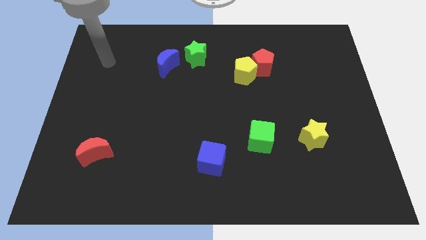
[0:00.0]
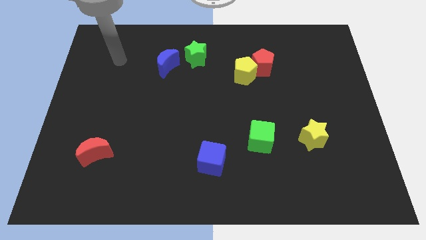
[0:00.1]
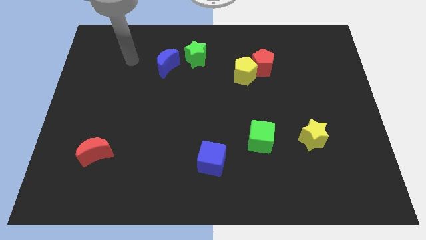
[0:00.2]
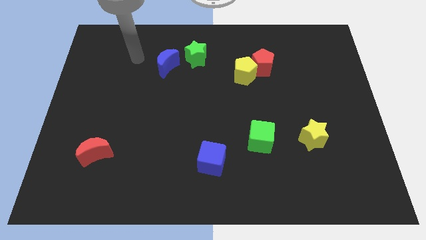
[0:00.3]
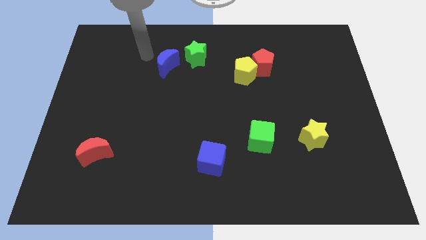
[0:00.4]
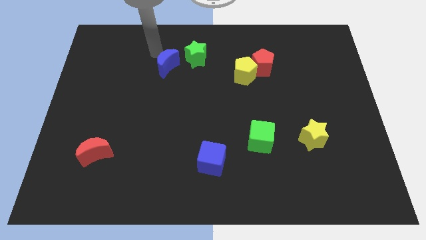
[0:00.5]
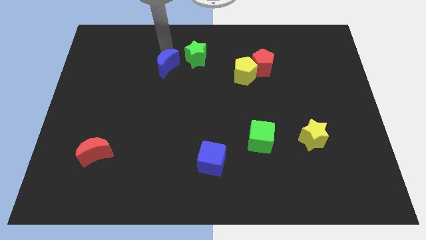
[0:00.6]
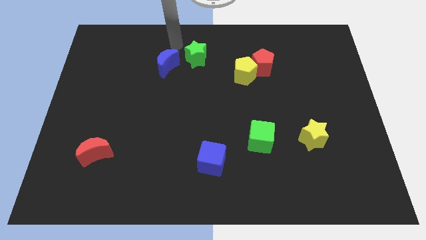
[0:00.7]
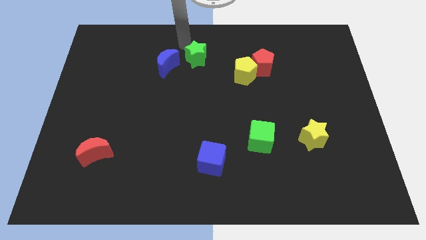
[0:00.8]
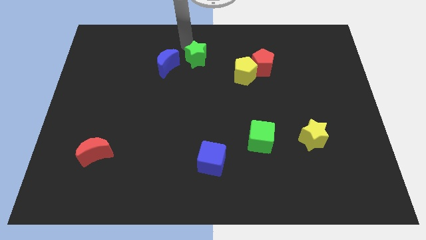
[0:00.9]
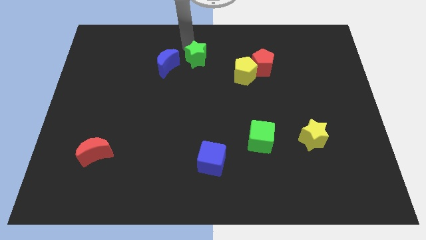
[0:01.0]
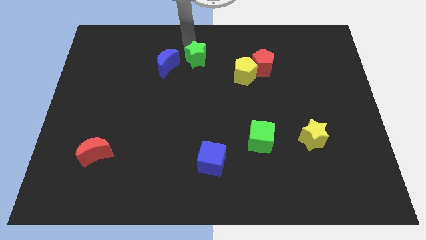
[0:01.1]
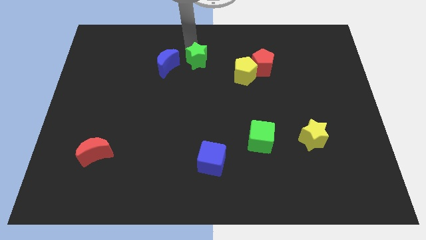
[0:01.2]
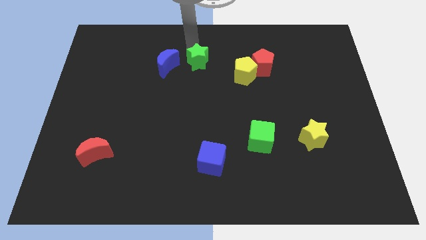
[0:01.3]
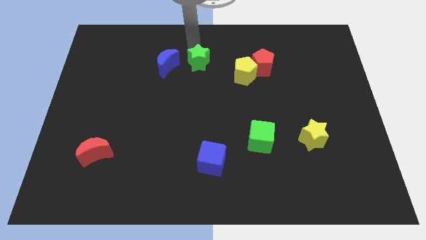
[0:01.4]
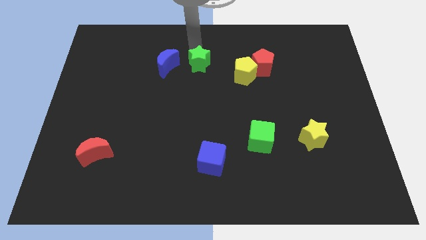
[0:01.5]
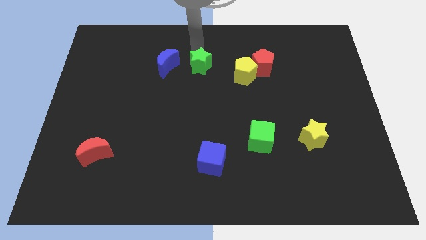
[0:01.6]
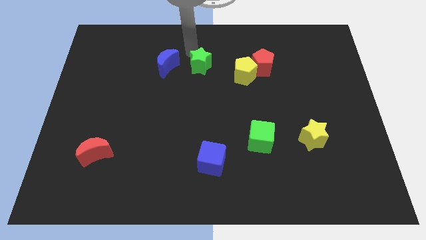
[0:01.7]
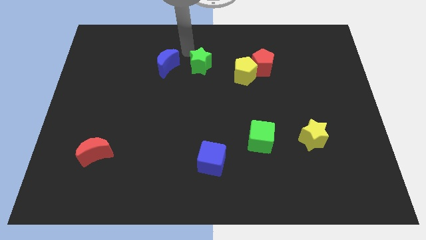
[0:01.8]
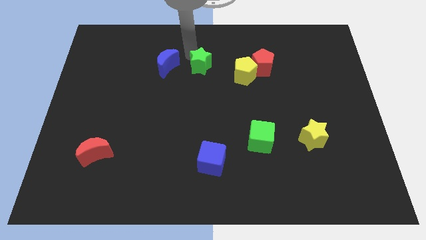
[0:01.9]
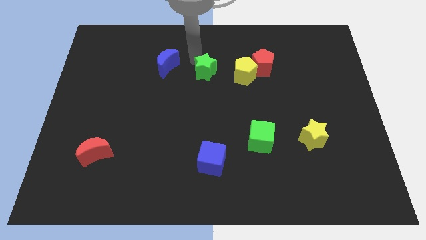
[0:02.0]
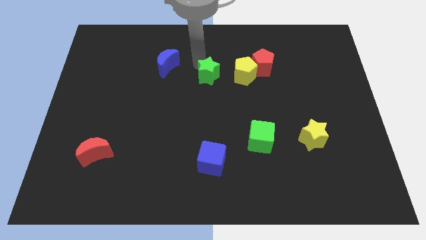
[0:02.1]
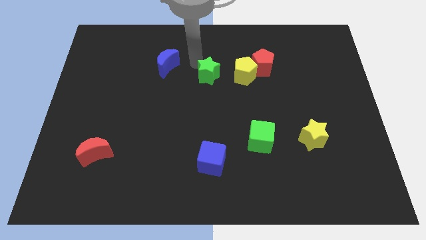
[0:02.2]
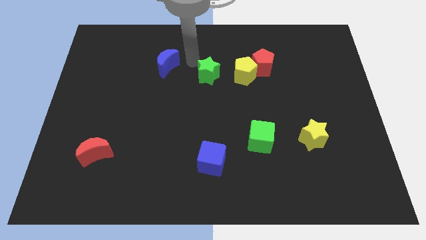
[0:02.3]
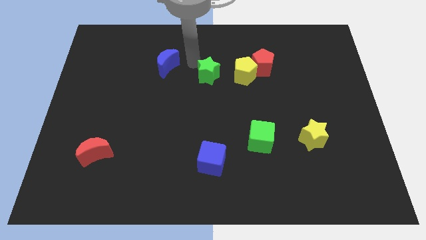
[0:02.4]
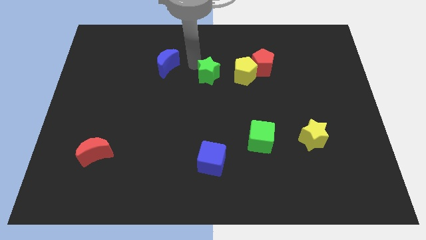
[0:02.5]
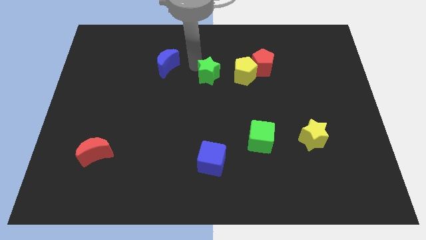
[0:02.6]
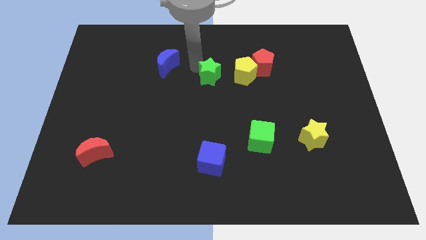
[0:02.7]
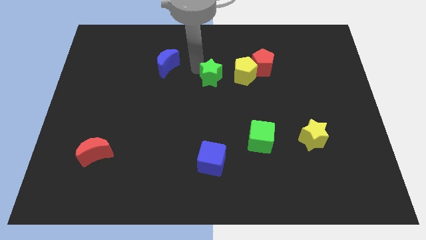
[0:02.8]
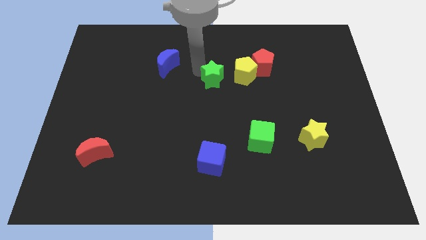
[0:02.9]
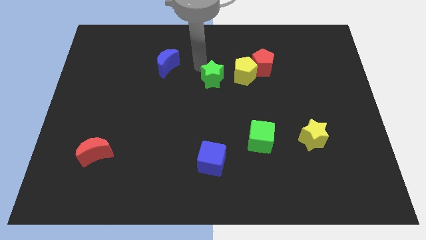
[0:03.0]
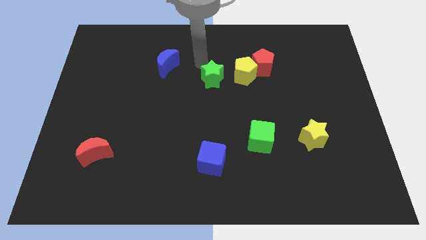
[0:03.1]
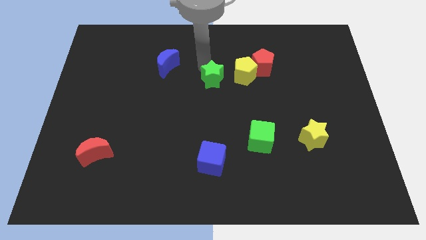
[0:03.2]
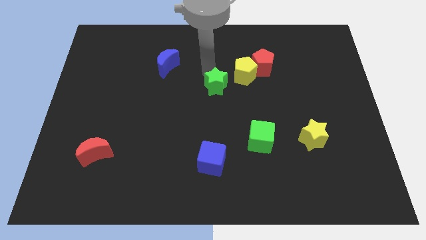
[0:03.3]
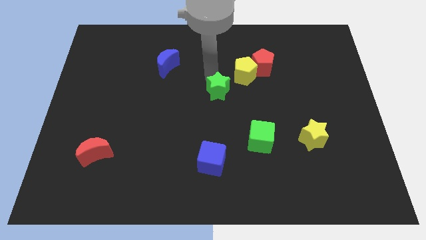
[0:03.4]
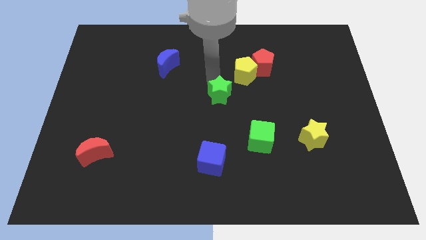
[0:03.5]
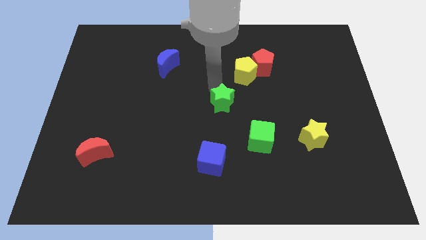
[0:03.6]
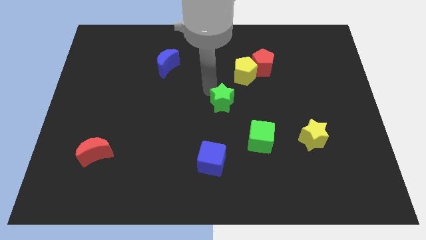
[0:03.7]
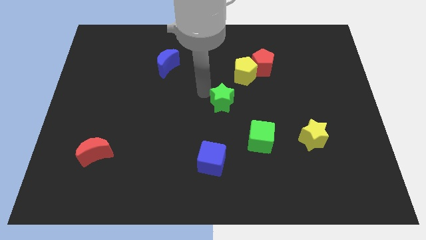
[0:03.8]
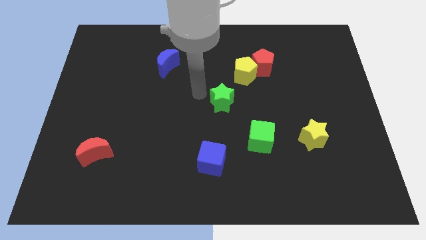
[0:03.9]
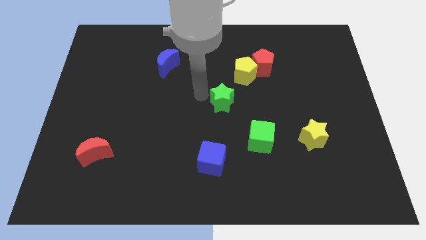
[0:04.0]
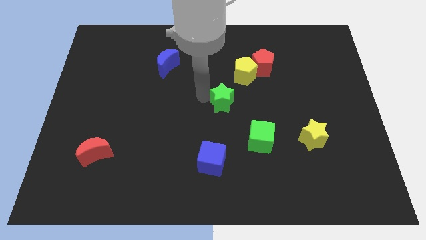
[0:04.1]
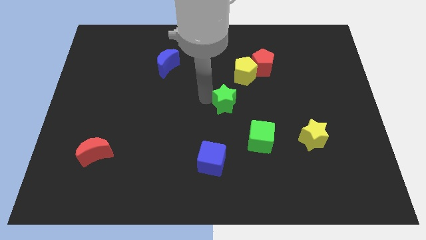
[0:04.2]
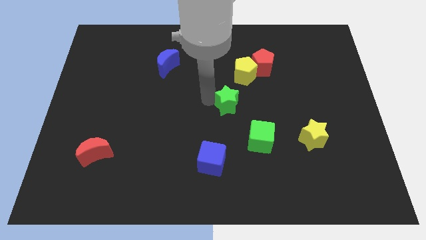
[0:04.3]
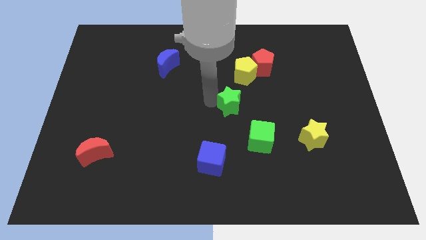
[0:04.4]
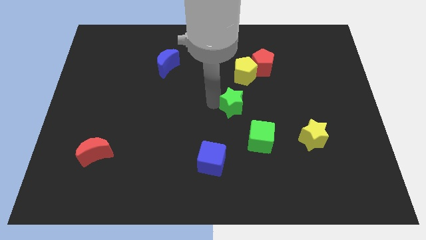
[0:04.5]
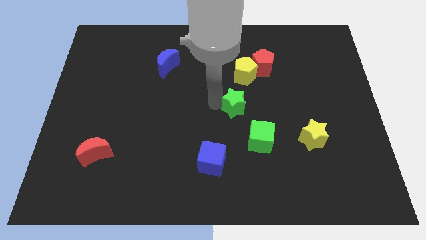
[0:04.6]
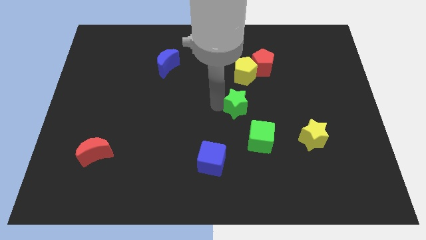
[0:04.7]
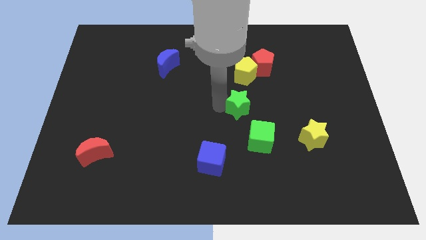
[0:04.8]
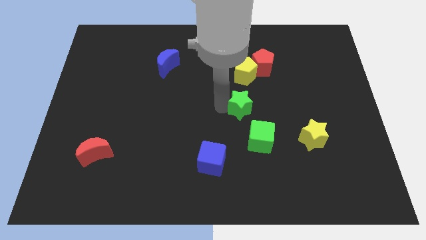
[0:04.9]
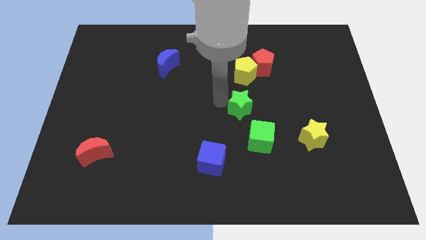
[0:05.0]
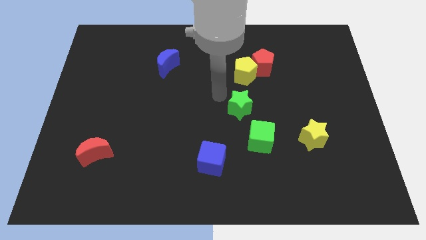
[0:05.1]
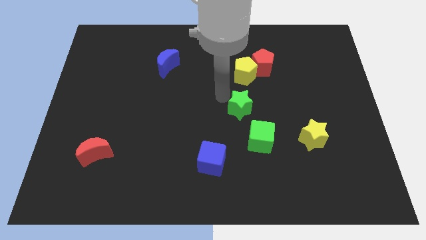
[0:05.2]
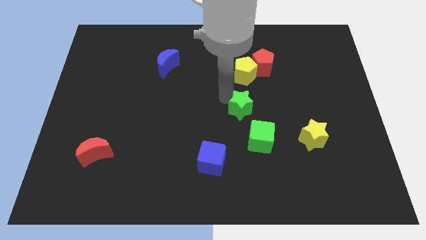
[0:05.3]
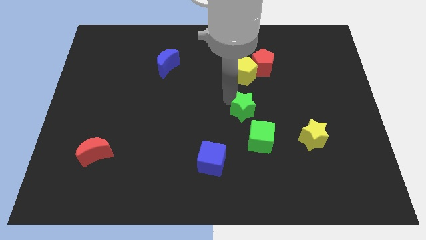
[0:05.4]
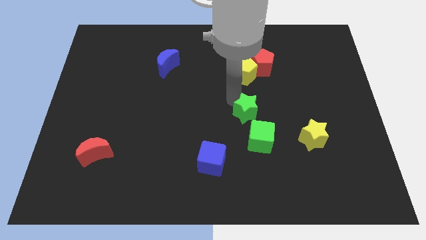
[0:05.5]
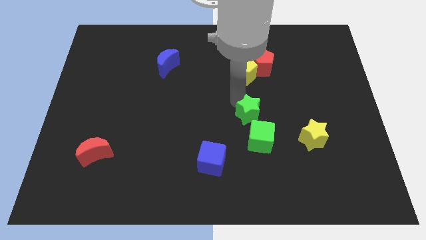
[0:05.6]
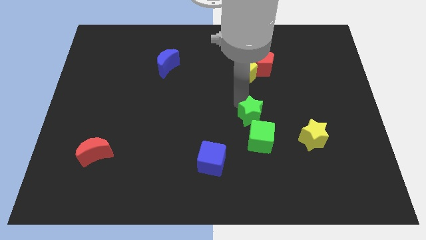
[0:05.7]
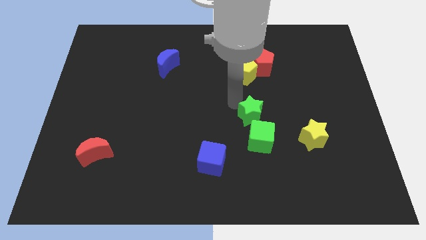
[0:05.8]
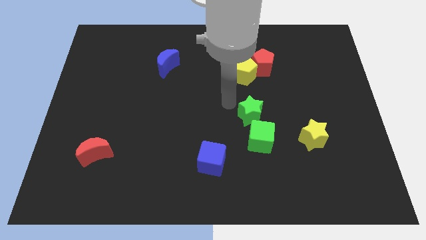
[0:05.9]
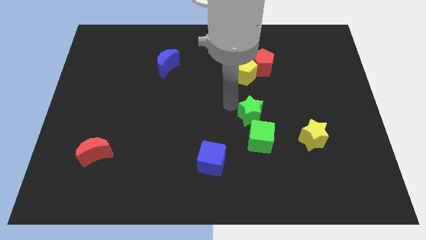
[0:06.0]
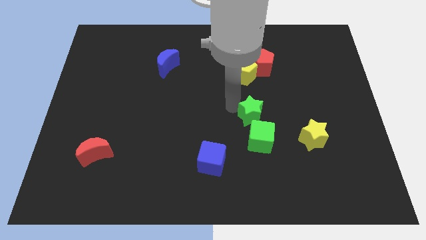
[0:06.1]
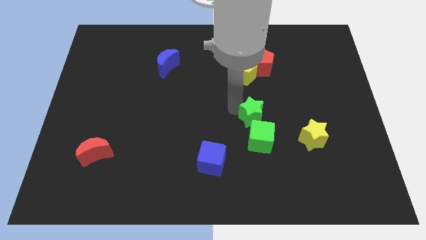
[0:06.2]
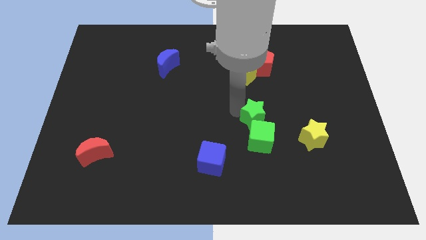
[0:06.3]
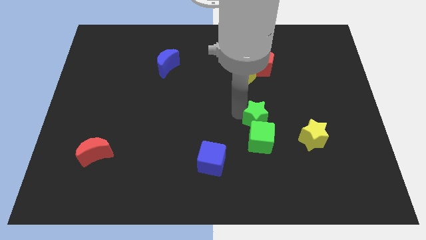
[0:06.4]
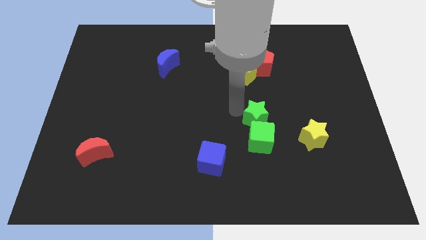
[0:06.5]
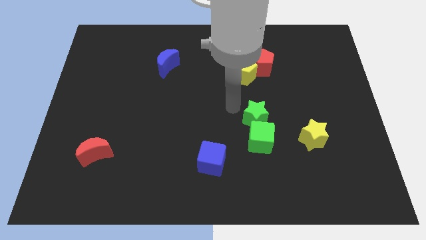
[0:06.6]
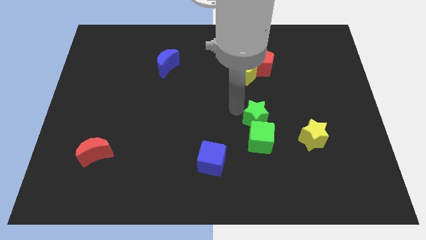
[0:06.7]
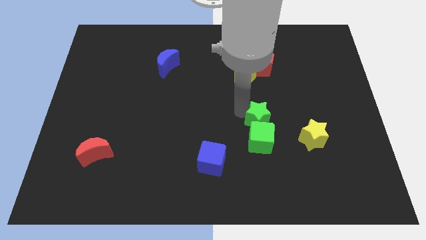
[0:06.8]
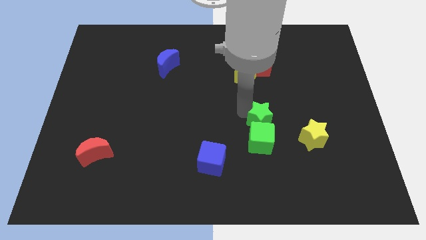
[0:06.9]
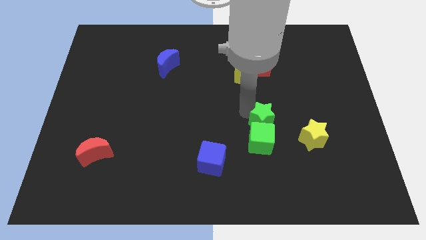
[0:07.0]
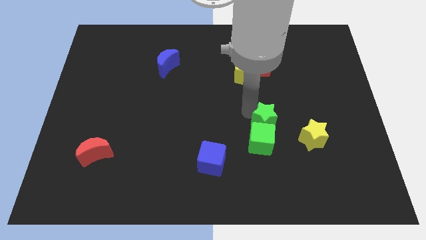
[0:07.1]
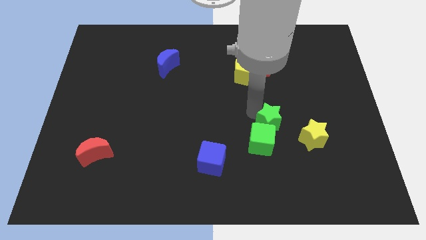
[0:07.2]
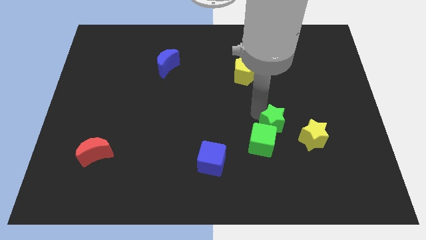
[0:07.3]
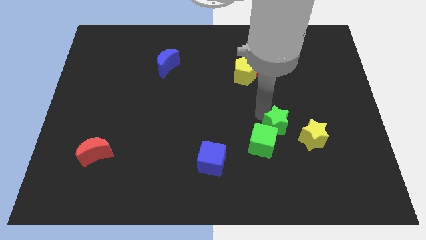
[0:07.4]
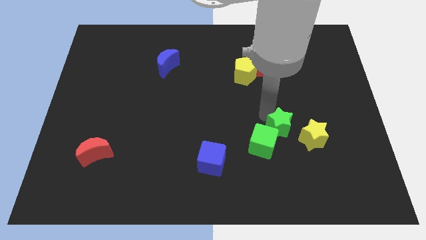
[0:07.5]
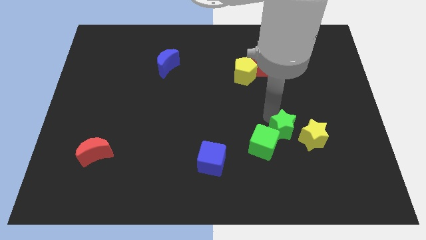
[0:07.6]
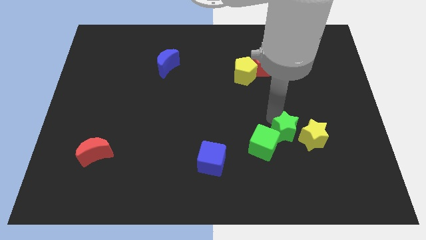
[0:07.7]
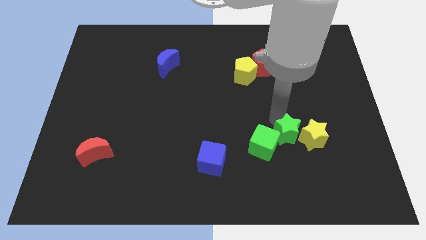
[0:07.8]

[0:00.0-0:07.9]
put the green star to the bottom left of the yellow star
